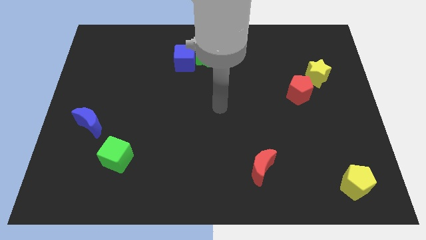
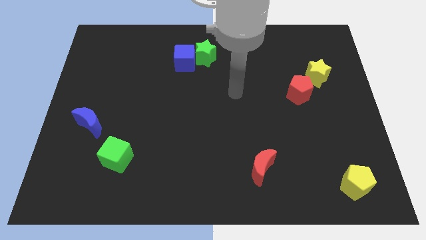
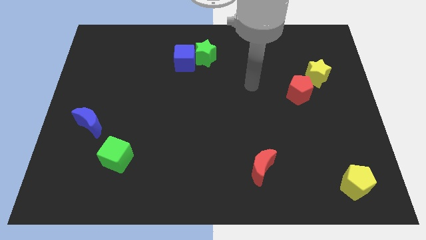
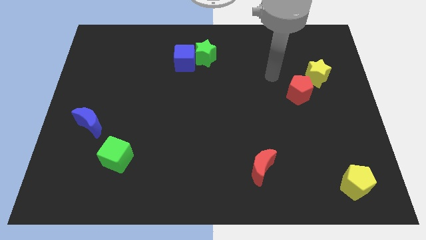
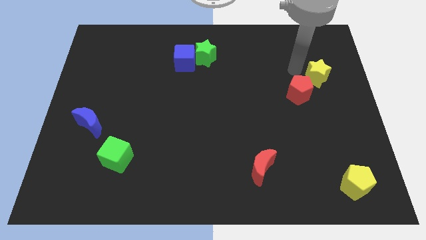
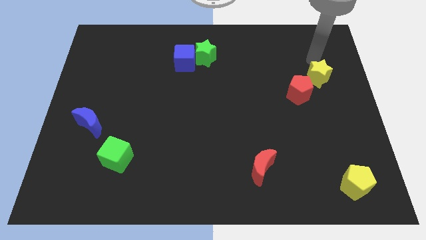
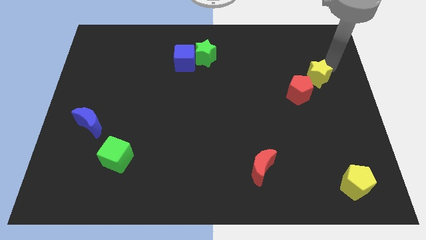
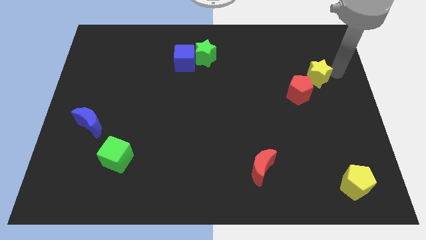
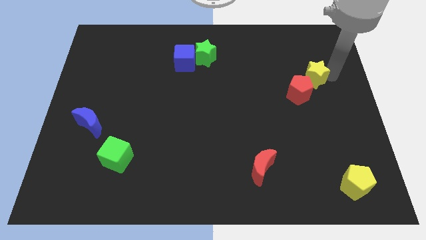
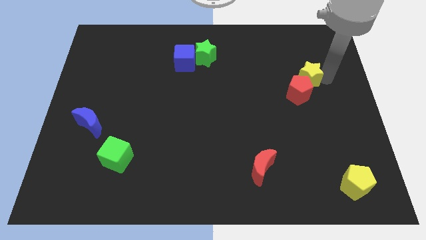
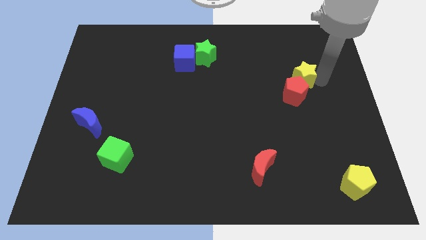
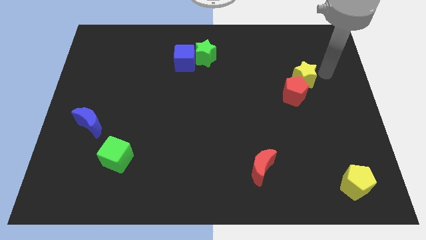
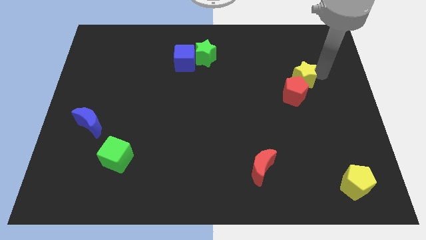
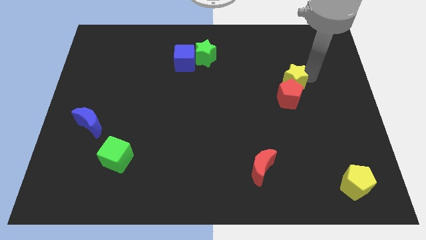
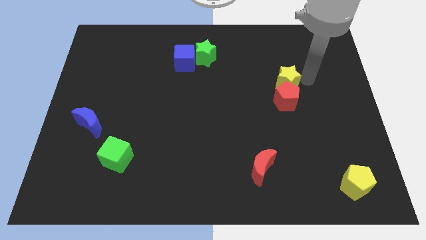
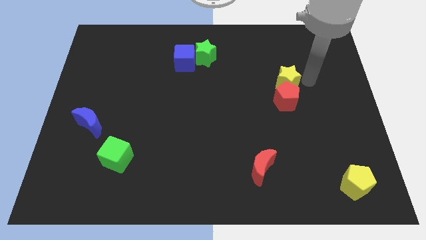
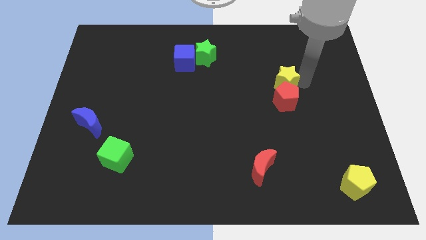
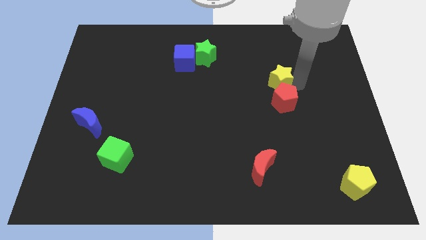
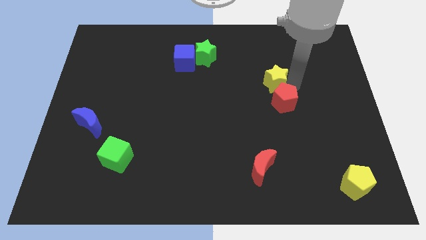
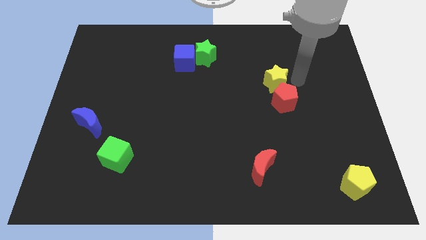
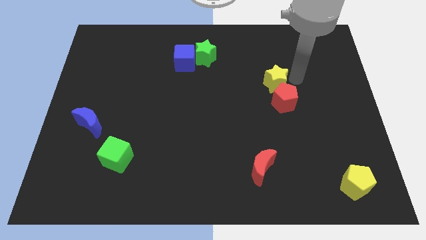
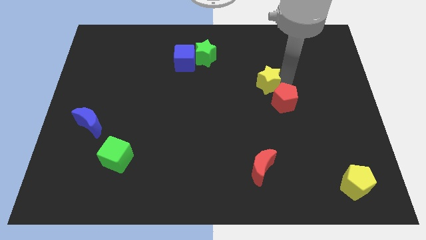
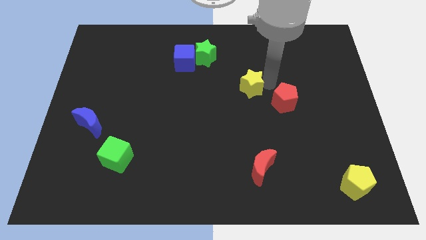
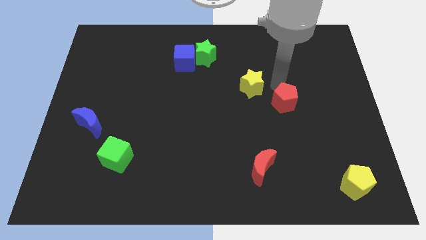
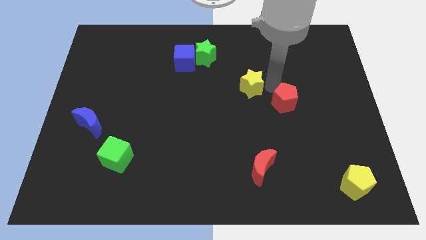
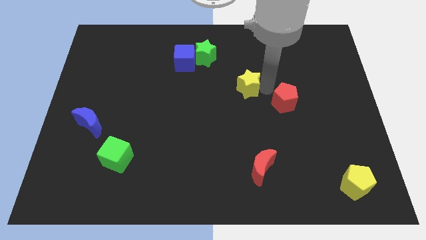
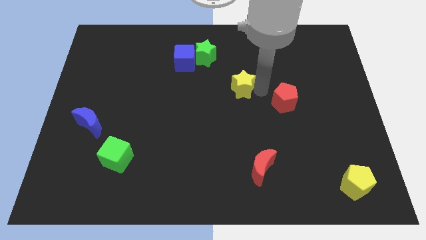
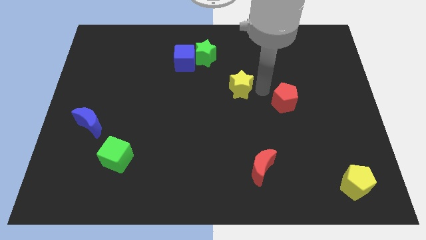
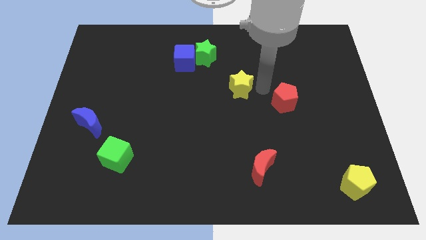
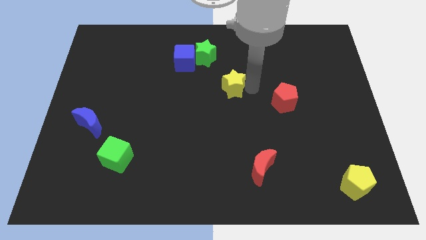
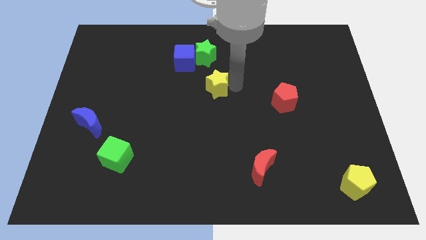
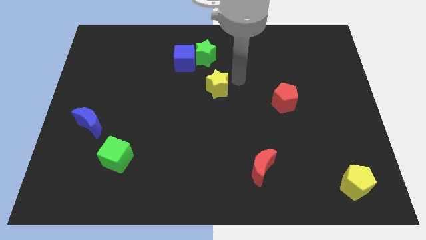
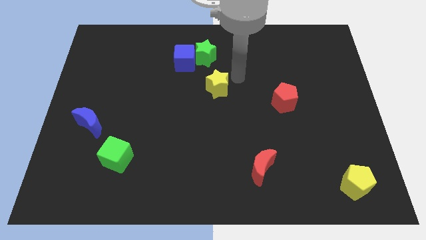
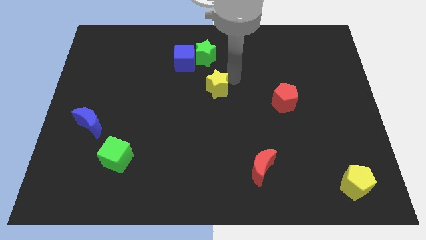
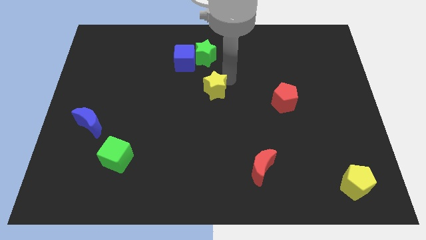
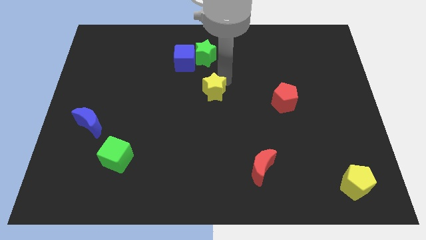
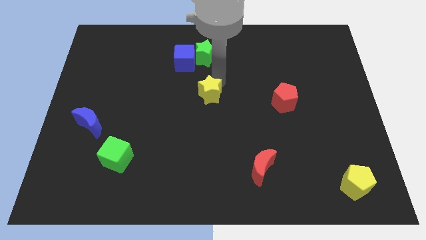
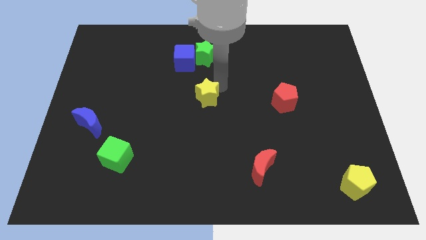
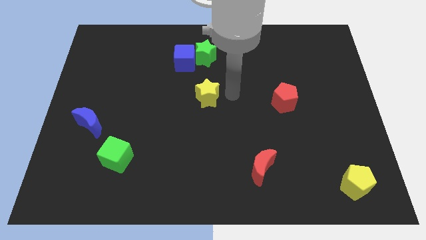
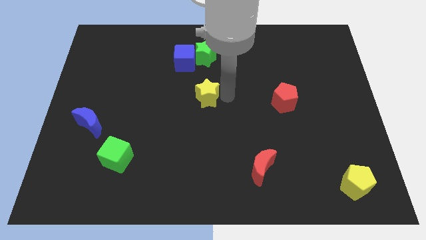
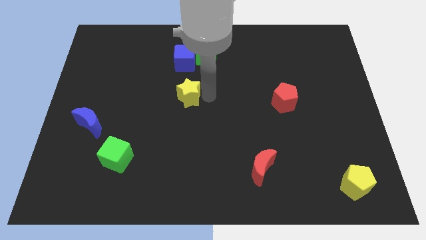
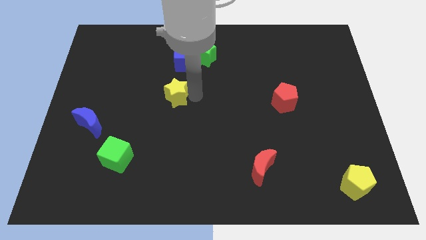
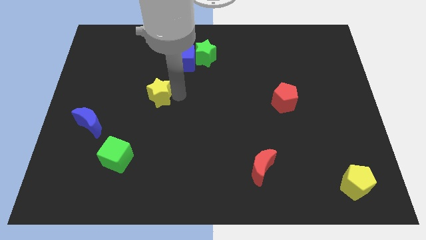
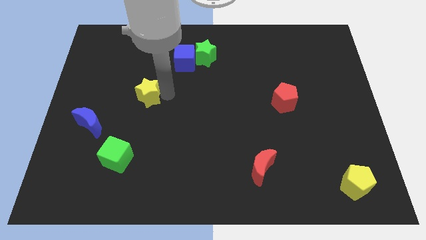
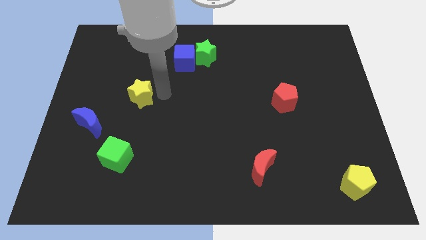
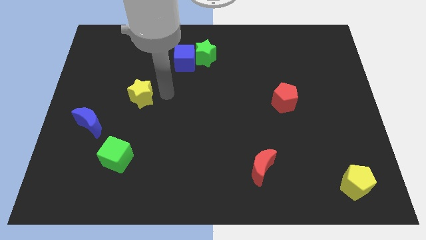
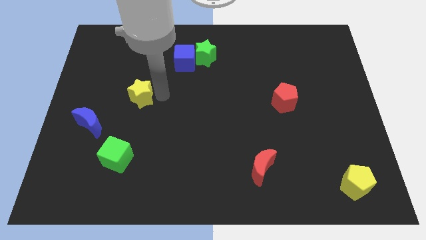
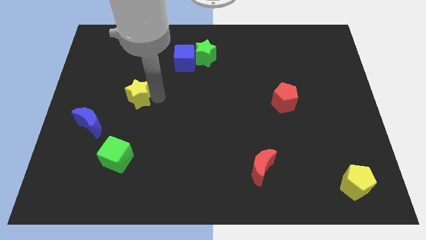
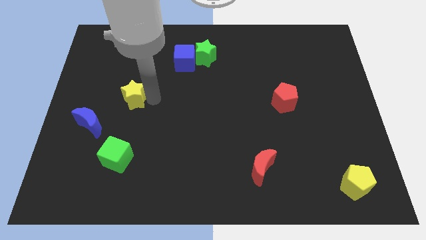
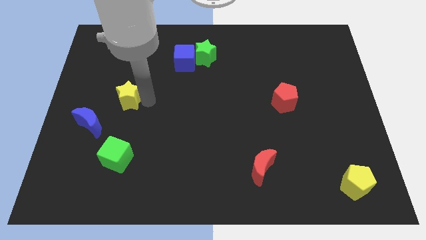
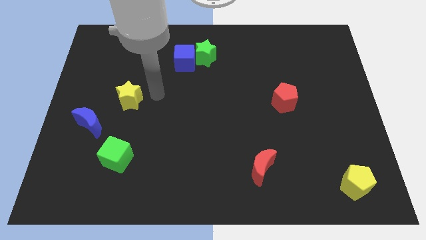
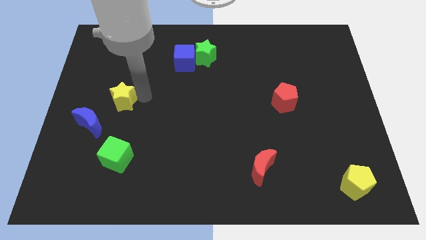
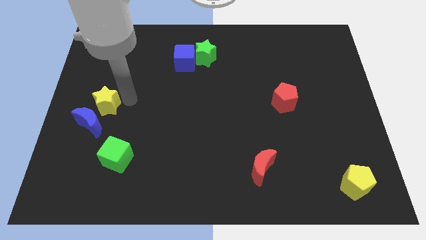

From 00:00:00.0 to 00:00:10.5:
put the yellow star to the left side of the board
